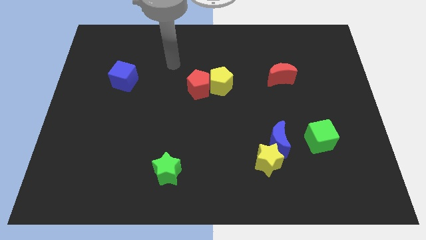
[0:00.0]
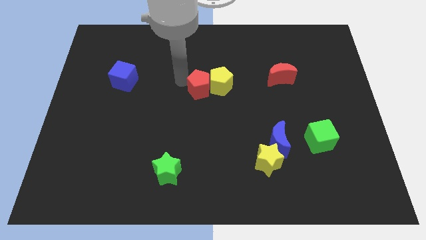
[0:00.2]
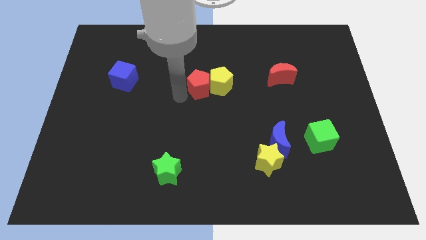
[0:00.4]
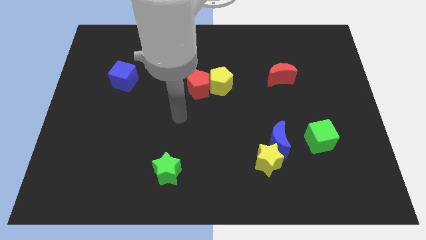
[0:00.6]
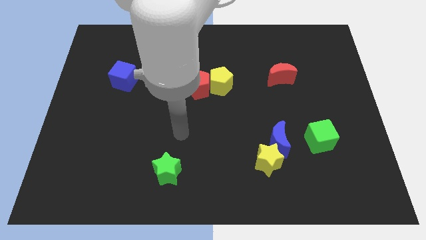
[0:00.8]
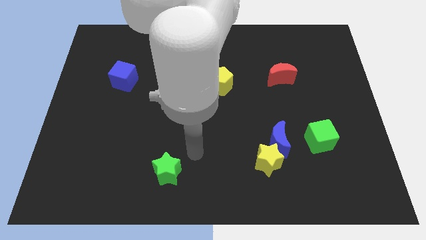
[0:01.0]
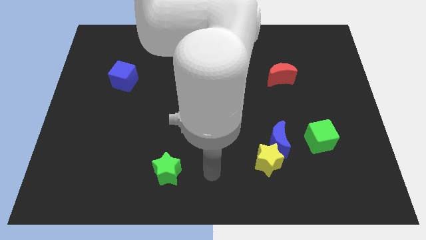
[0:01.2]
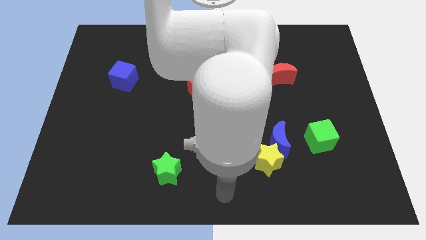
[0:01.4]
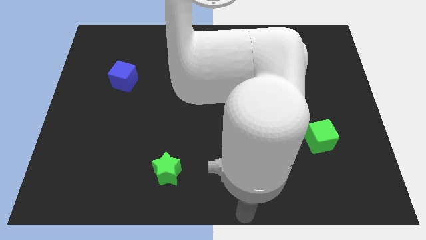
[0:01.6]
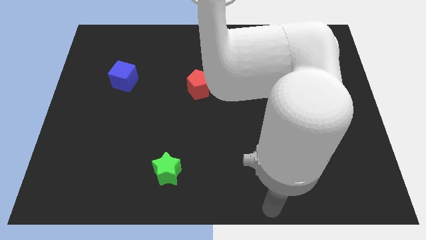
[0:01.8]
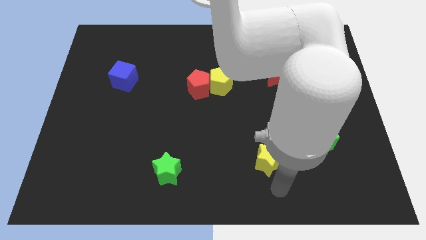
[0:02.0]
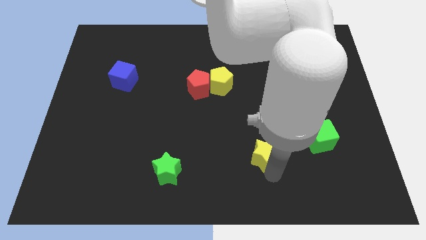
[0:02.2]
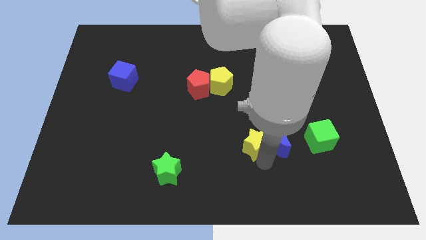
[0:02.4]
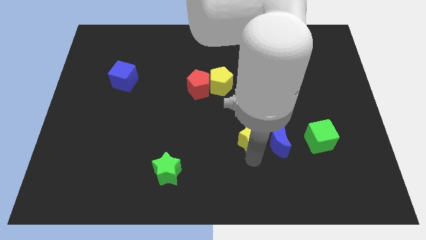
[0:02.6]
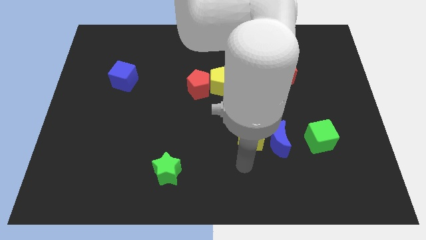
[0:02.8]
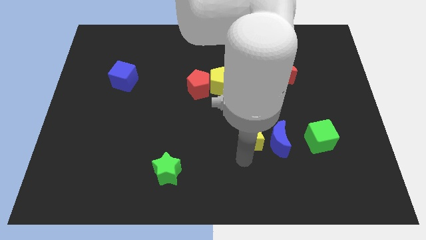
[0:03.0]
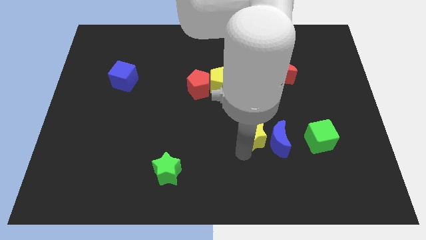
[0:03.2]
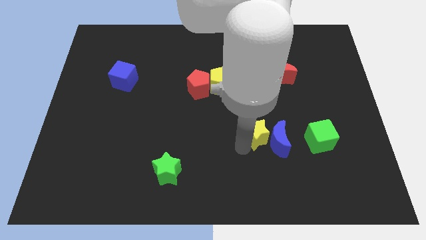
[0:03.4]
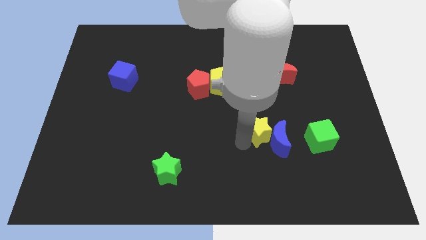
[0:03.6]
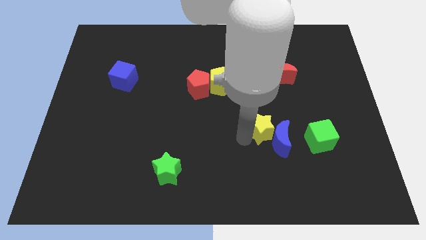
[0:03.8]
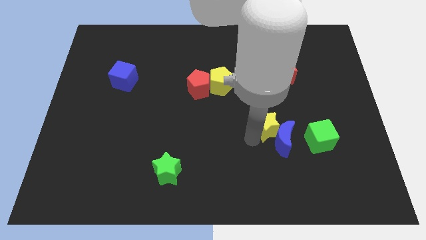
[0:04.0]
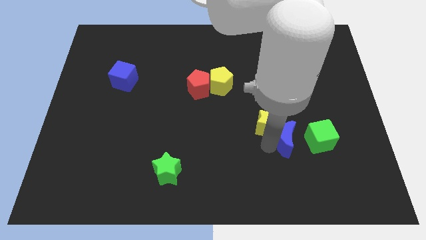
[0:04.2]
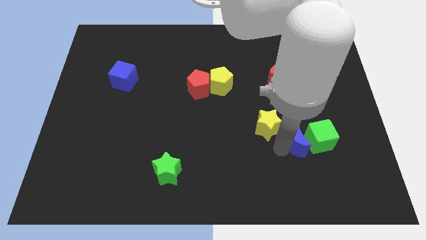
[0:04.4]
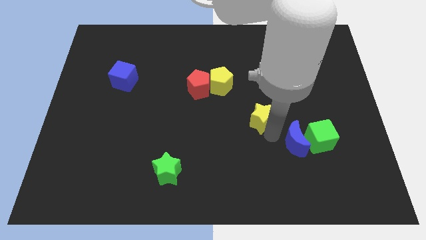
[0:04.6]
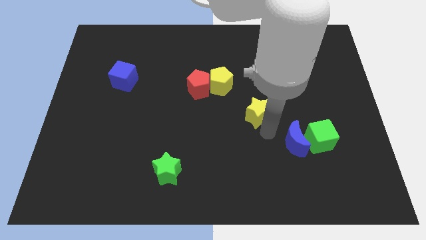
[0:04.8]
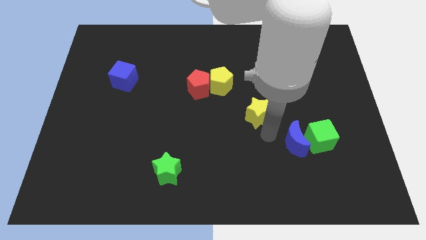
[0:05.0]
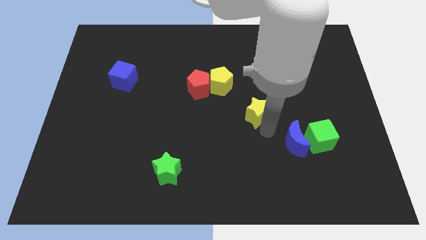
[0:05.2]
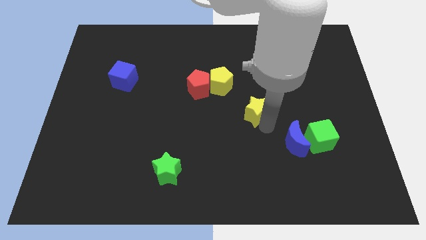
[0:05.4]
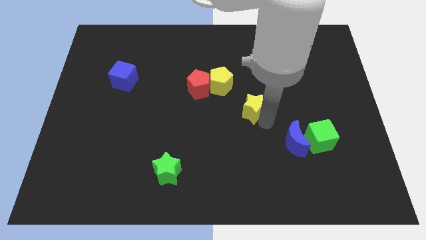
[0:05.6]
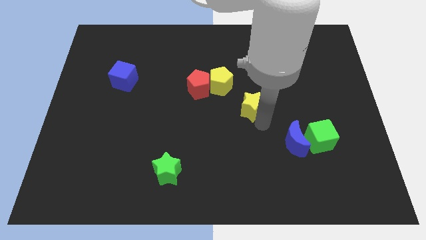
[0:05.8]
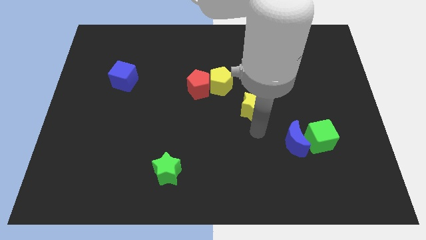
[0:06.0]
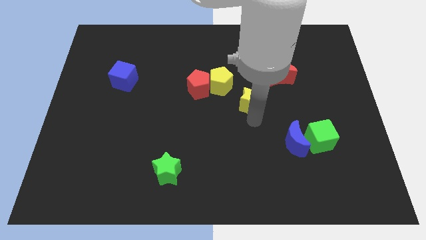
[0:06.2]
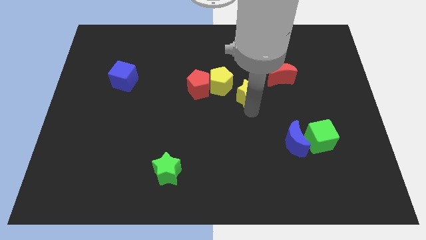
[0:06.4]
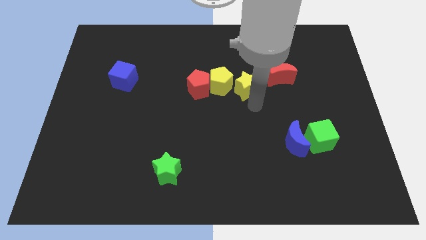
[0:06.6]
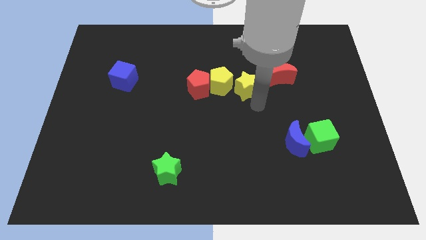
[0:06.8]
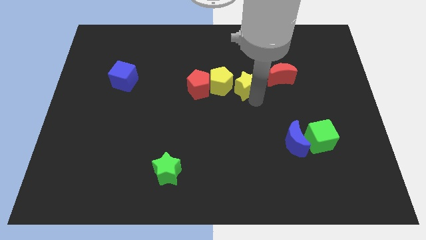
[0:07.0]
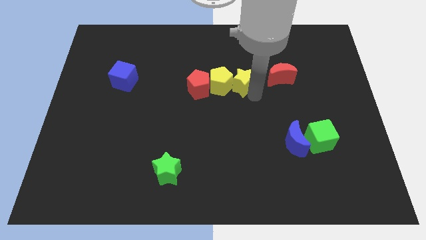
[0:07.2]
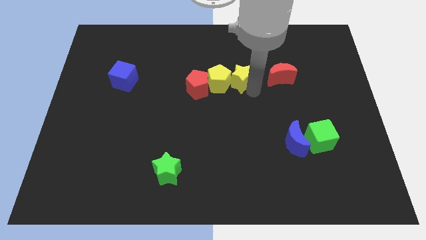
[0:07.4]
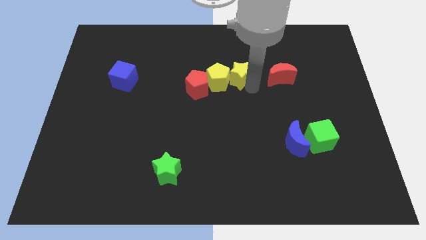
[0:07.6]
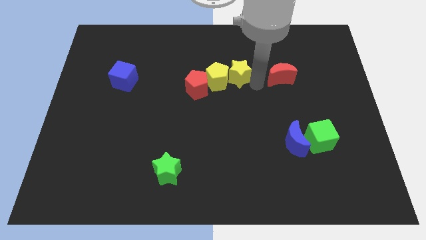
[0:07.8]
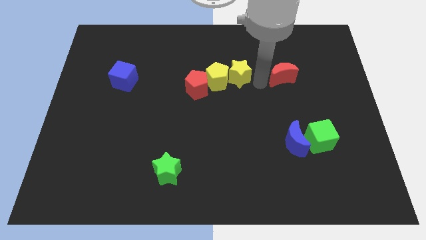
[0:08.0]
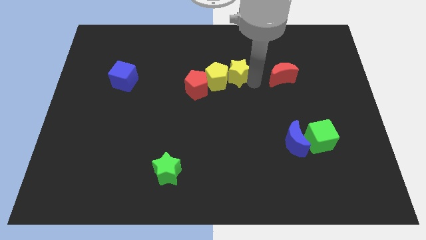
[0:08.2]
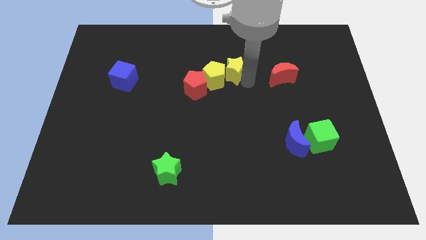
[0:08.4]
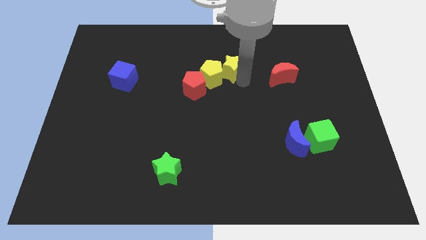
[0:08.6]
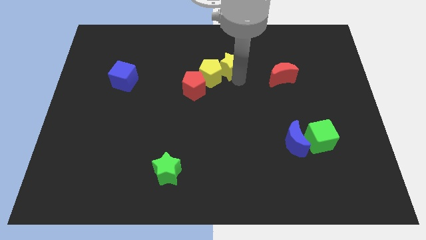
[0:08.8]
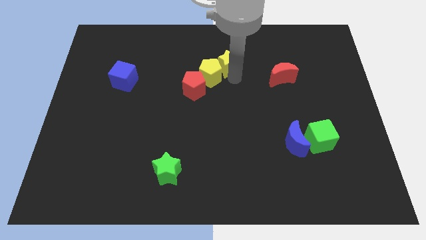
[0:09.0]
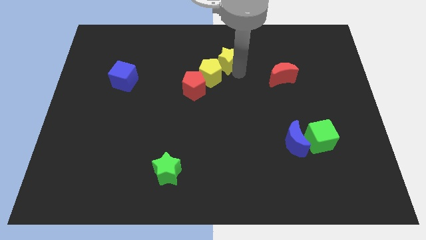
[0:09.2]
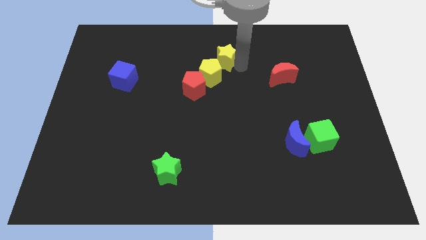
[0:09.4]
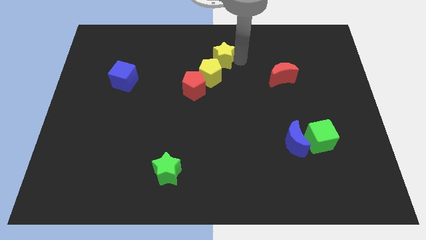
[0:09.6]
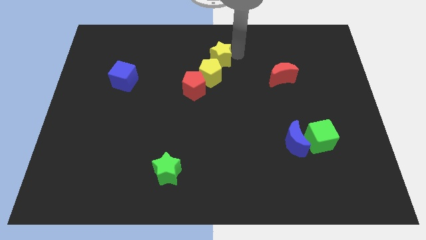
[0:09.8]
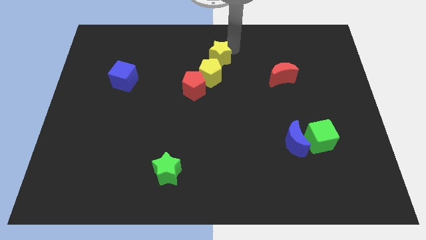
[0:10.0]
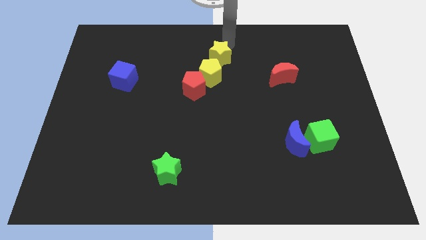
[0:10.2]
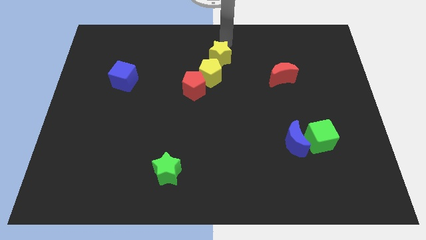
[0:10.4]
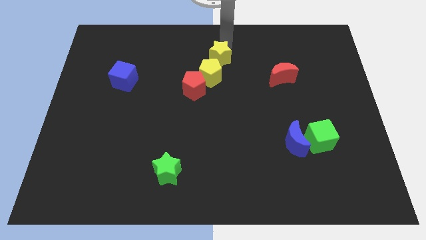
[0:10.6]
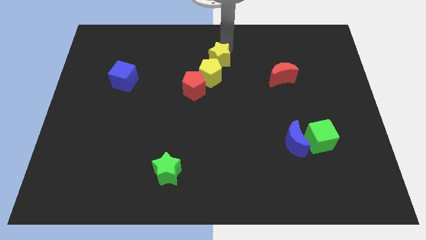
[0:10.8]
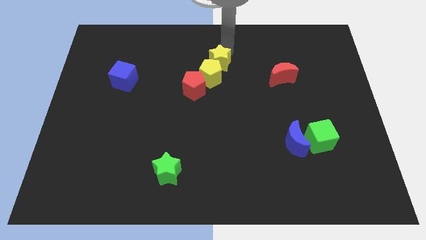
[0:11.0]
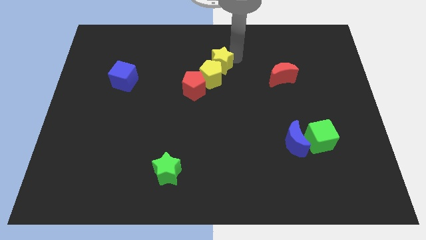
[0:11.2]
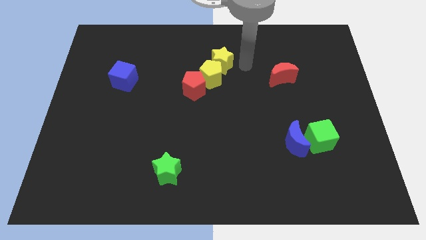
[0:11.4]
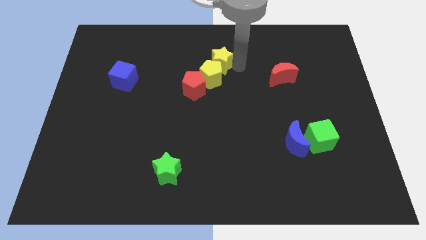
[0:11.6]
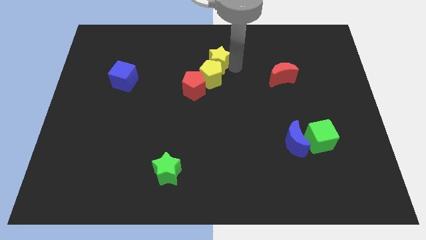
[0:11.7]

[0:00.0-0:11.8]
push the yellow star to the top left of the yellow pentagon

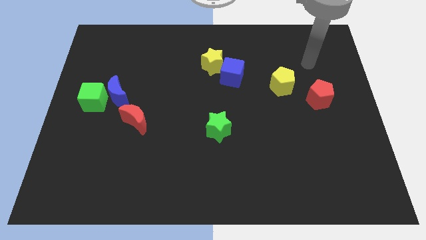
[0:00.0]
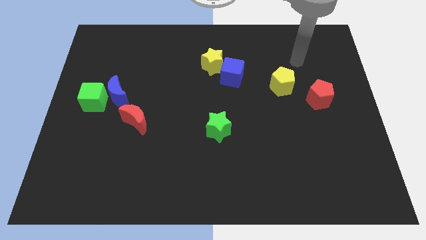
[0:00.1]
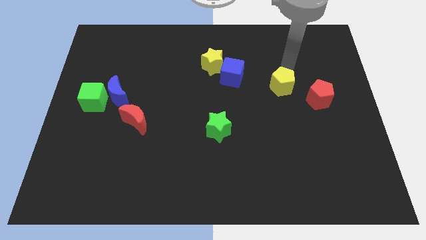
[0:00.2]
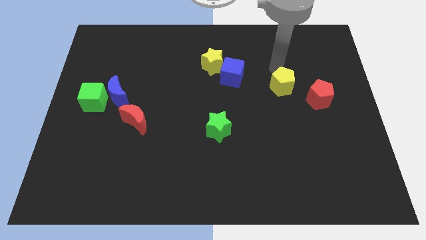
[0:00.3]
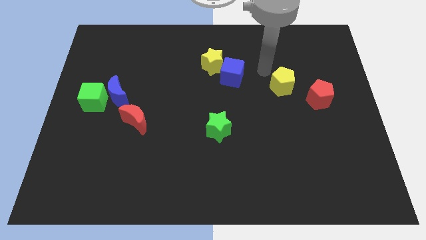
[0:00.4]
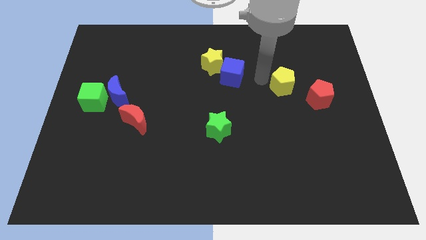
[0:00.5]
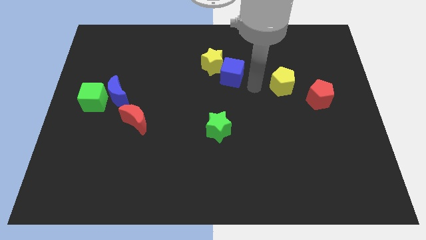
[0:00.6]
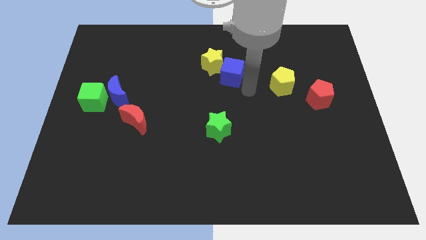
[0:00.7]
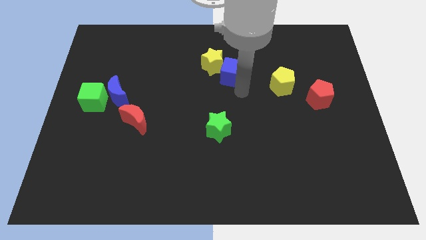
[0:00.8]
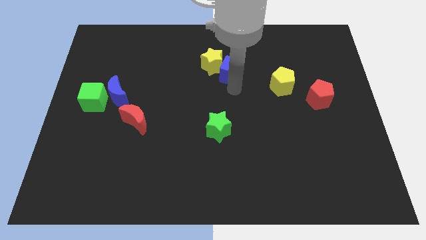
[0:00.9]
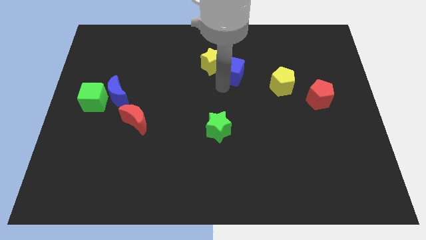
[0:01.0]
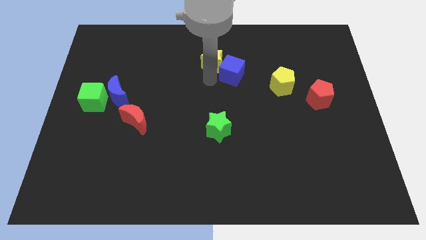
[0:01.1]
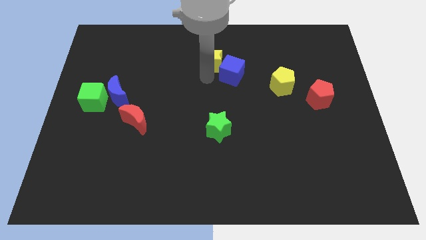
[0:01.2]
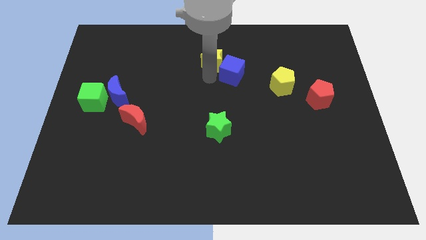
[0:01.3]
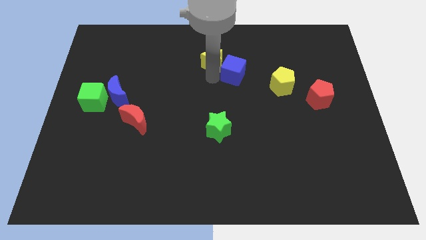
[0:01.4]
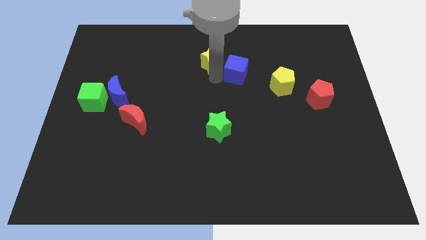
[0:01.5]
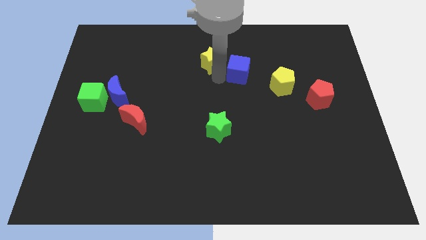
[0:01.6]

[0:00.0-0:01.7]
put the blue cube to the top left of the yellow pentagon
